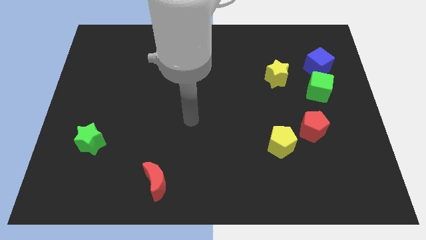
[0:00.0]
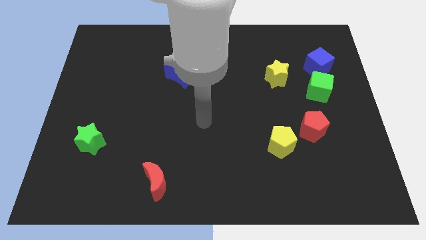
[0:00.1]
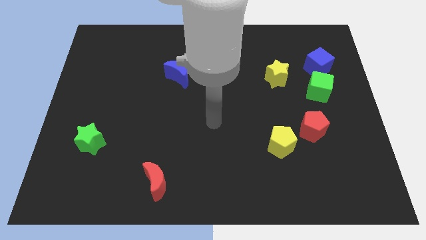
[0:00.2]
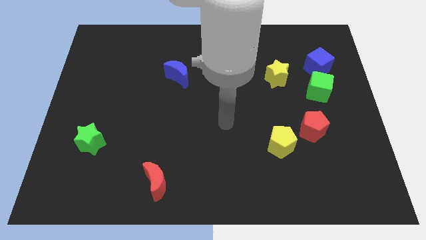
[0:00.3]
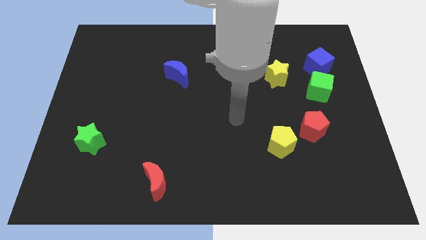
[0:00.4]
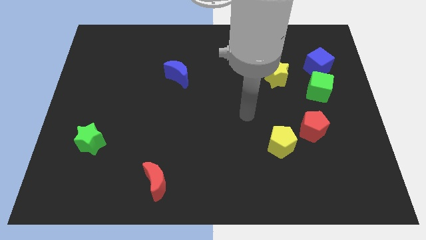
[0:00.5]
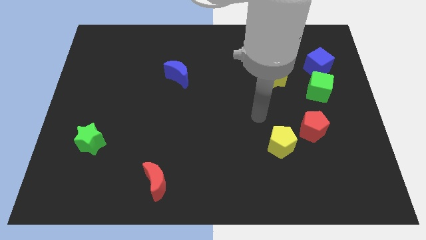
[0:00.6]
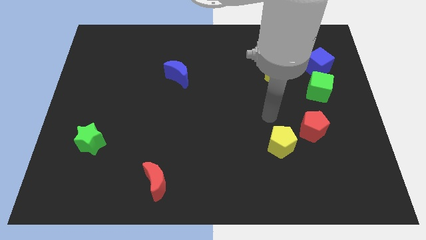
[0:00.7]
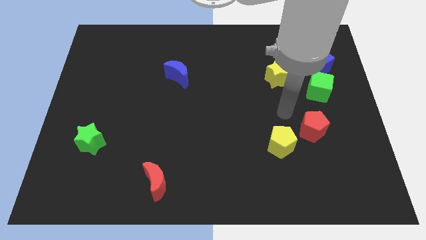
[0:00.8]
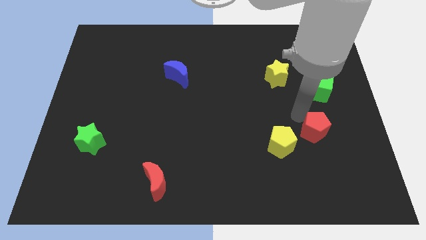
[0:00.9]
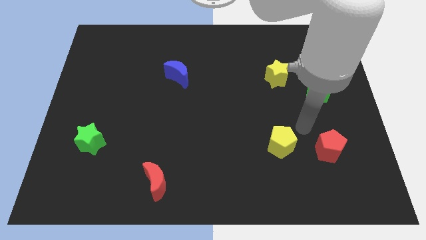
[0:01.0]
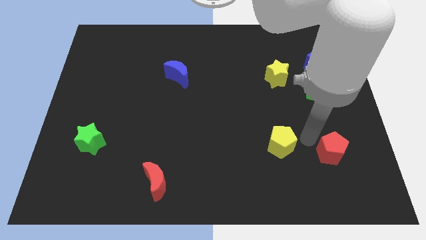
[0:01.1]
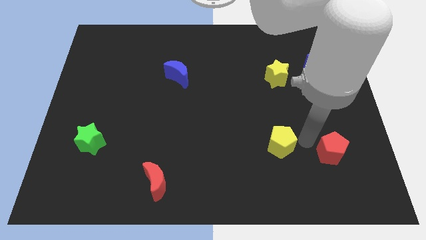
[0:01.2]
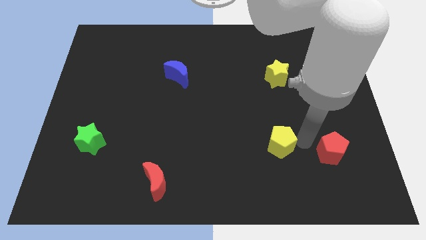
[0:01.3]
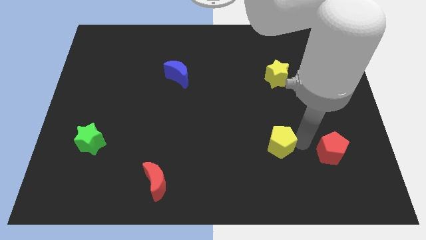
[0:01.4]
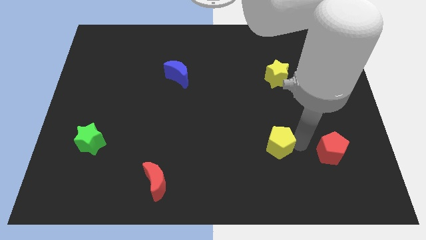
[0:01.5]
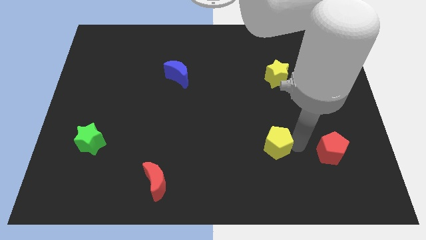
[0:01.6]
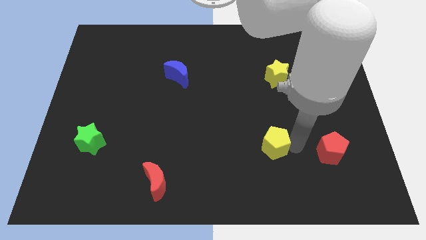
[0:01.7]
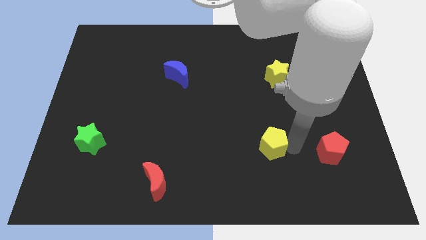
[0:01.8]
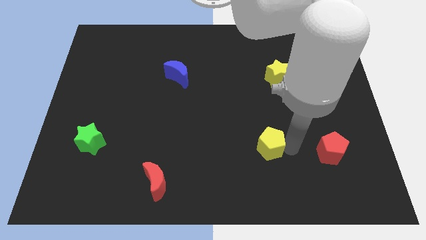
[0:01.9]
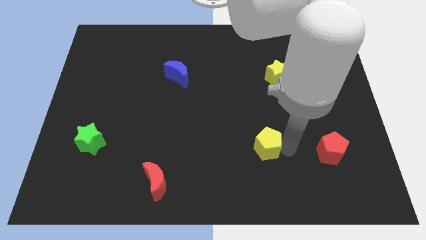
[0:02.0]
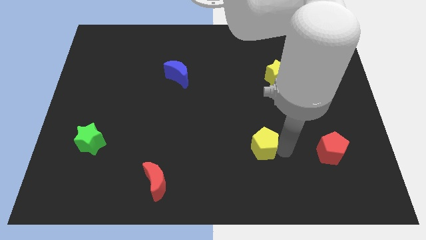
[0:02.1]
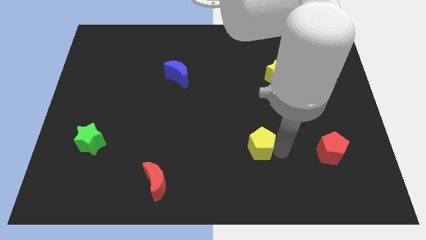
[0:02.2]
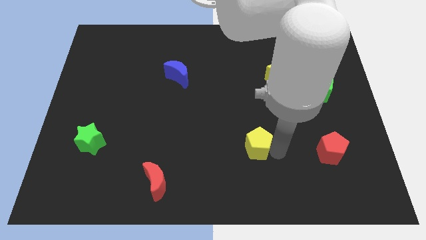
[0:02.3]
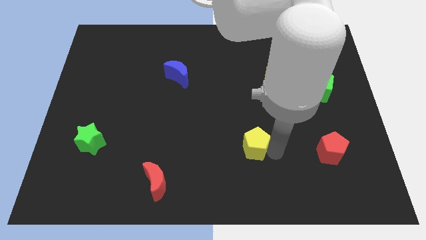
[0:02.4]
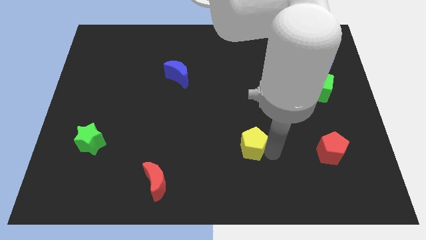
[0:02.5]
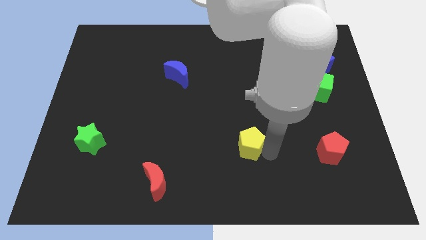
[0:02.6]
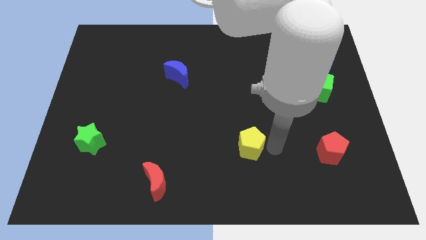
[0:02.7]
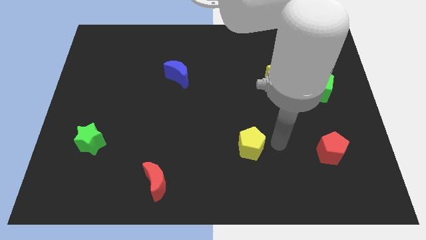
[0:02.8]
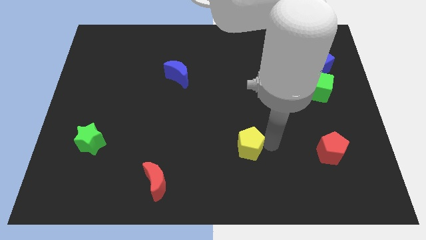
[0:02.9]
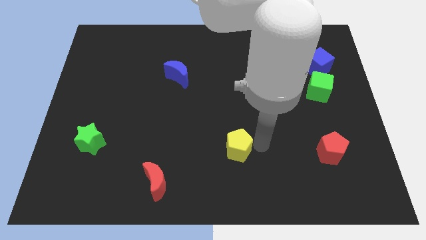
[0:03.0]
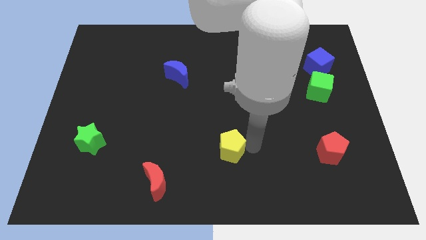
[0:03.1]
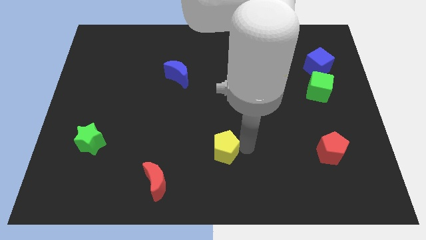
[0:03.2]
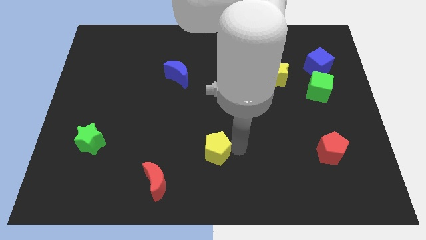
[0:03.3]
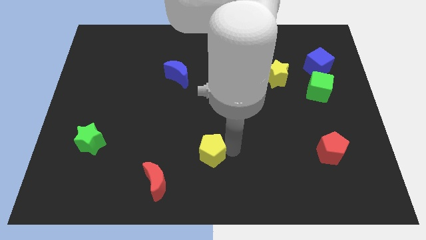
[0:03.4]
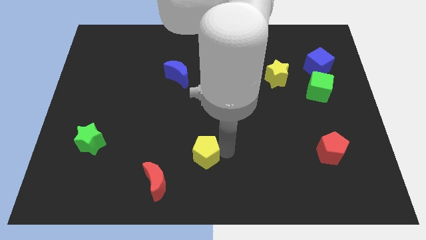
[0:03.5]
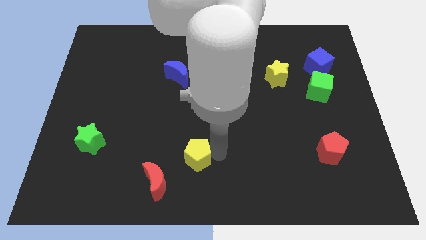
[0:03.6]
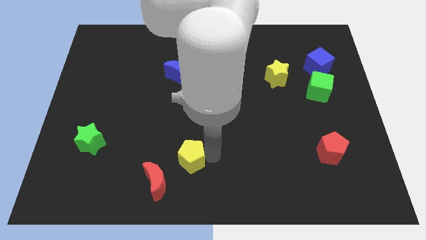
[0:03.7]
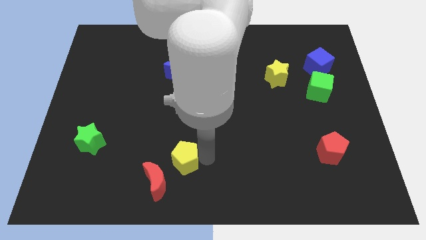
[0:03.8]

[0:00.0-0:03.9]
slide the yellow pentagon to the left

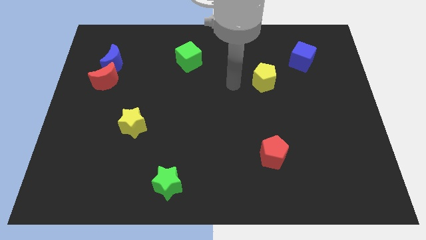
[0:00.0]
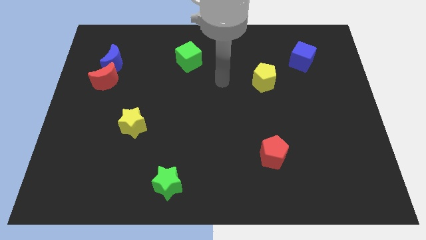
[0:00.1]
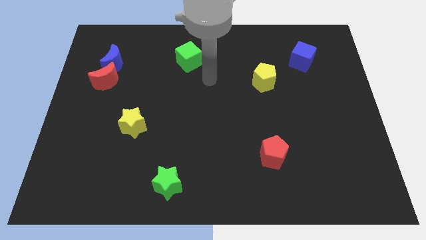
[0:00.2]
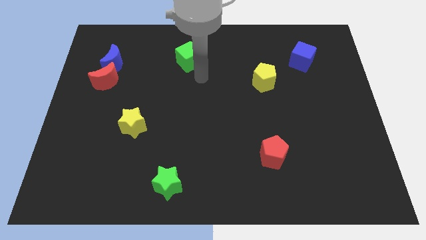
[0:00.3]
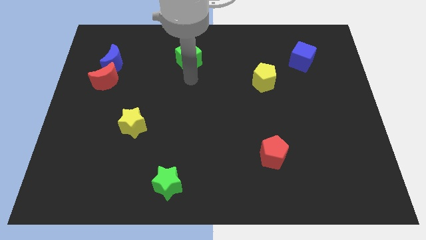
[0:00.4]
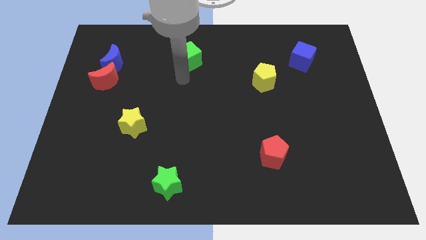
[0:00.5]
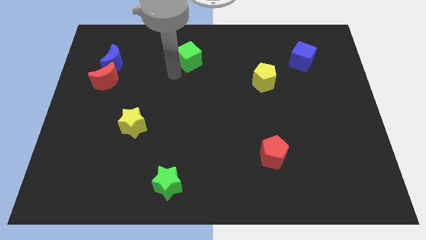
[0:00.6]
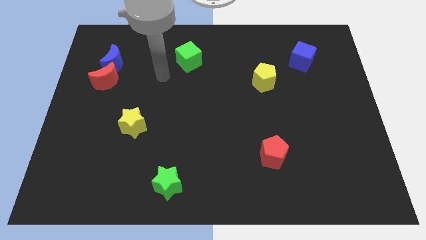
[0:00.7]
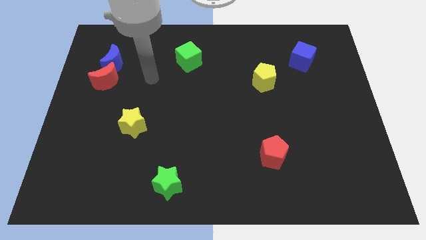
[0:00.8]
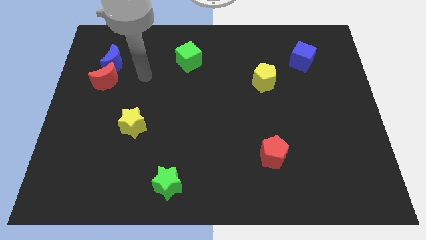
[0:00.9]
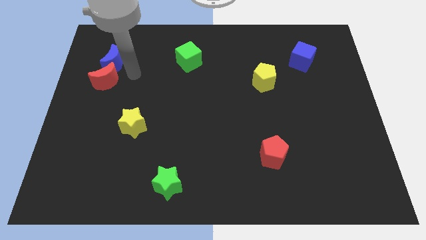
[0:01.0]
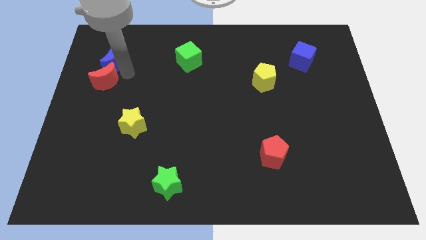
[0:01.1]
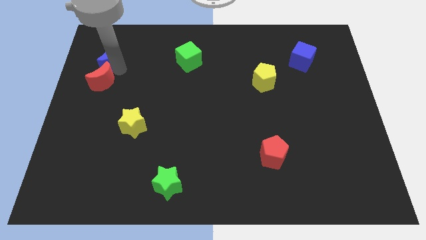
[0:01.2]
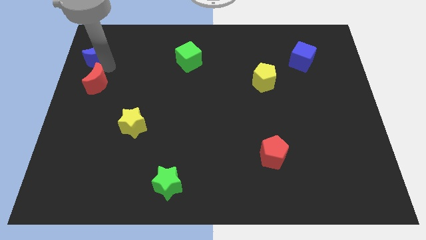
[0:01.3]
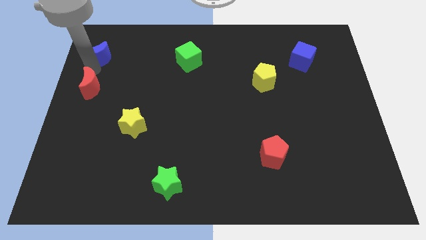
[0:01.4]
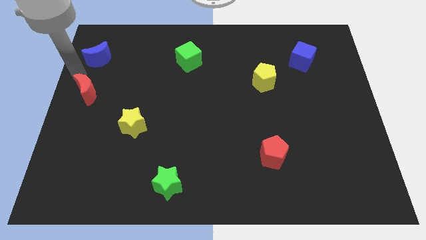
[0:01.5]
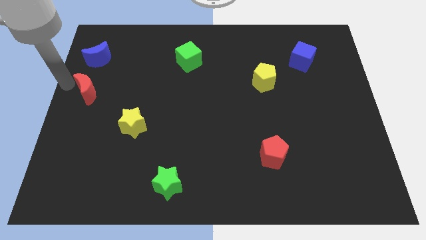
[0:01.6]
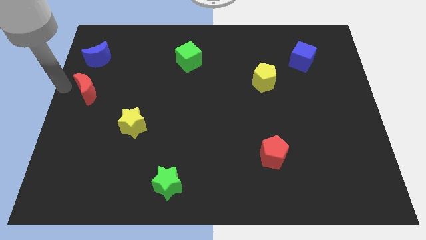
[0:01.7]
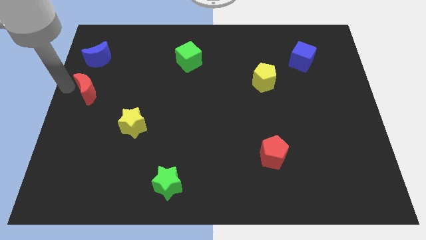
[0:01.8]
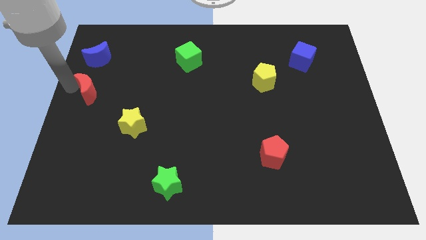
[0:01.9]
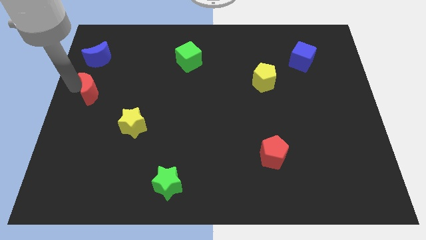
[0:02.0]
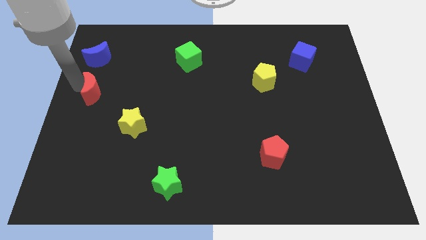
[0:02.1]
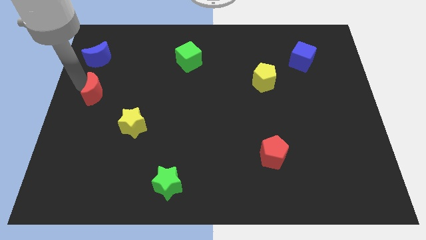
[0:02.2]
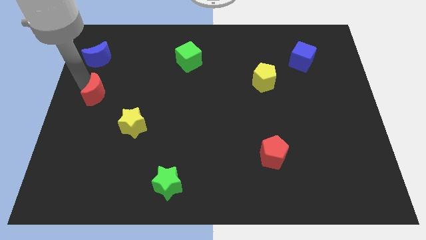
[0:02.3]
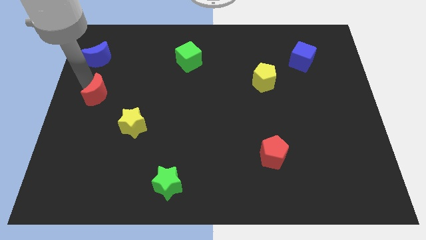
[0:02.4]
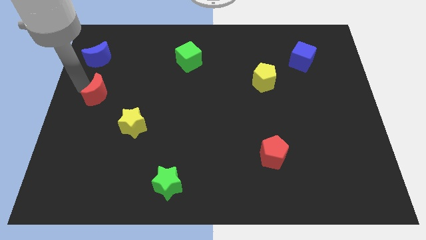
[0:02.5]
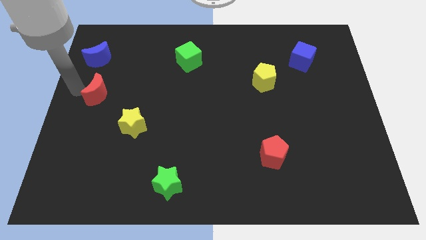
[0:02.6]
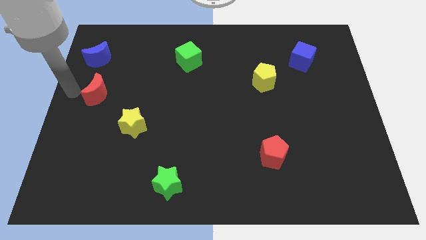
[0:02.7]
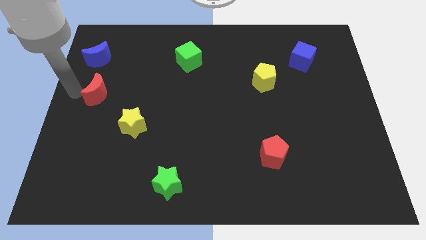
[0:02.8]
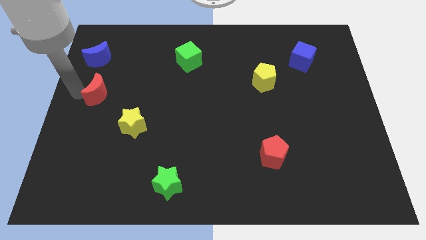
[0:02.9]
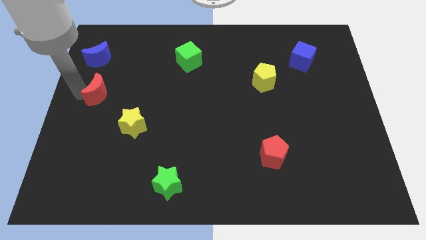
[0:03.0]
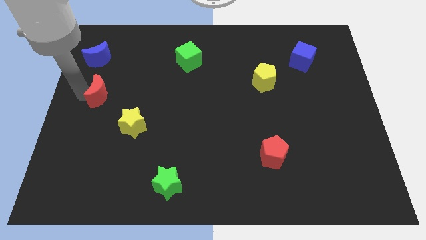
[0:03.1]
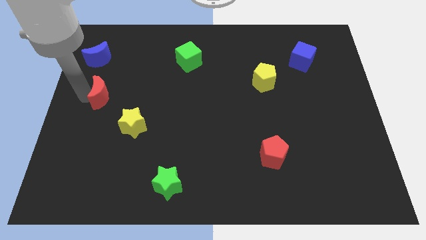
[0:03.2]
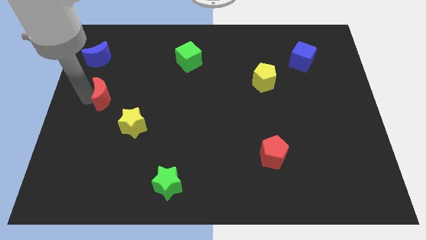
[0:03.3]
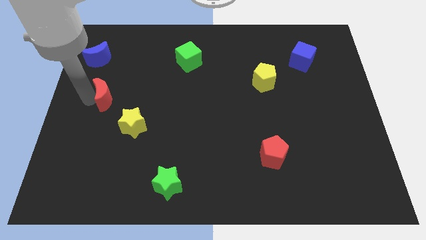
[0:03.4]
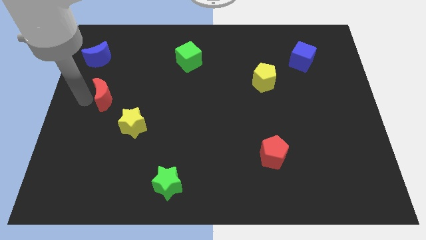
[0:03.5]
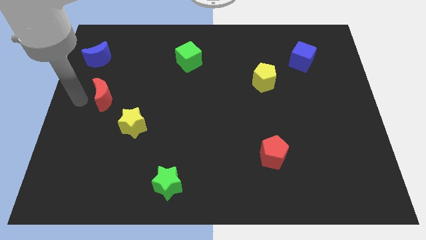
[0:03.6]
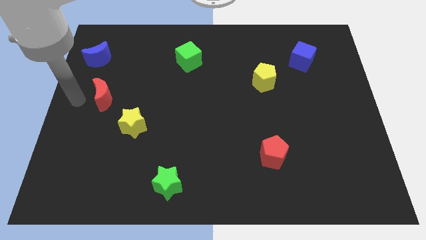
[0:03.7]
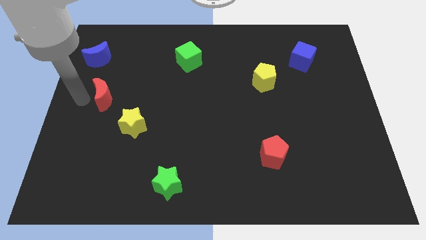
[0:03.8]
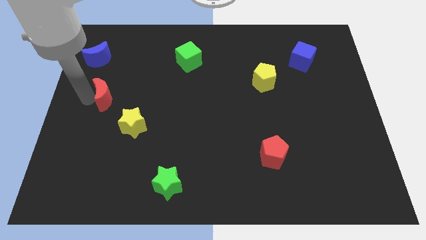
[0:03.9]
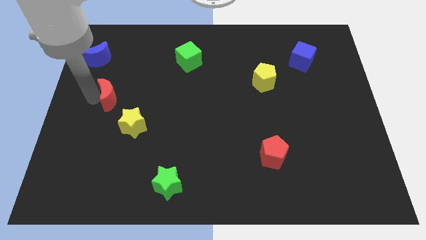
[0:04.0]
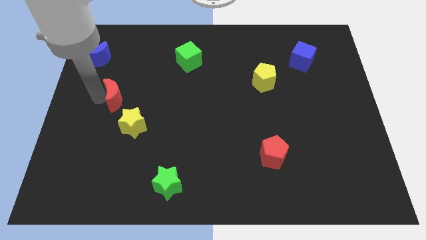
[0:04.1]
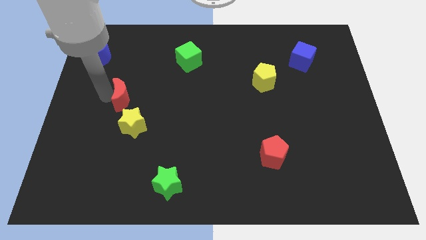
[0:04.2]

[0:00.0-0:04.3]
push the red moon down and to the right a little bit
